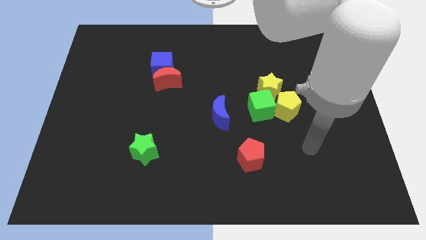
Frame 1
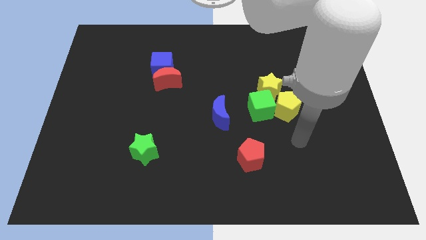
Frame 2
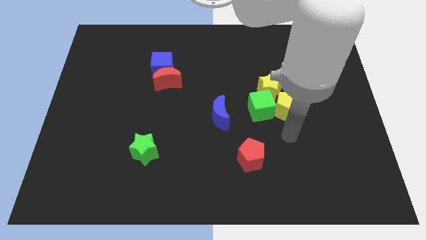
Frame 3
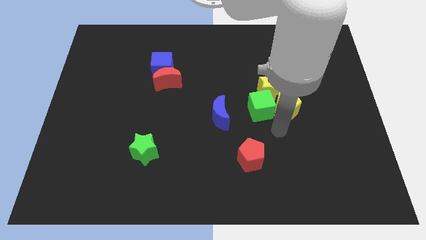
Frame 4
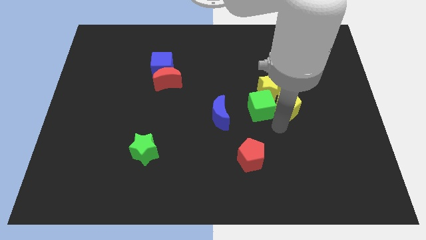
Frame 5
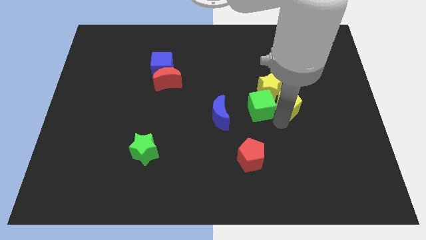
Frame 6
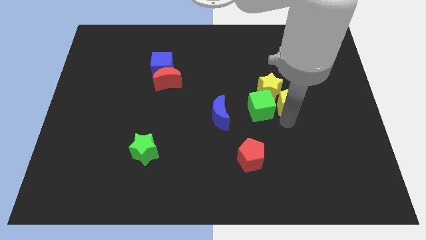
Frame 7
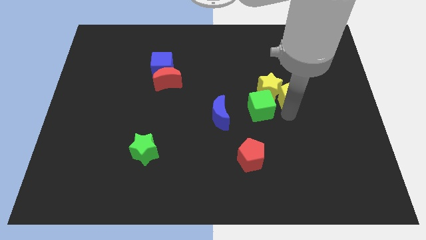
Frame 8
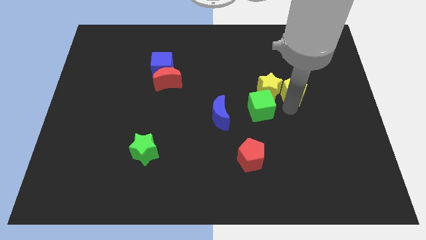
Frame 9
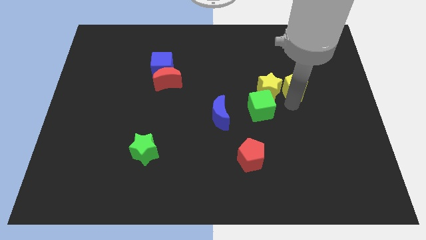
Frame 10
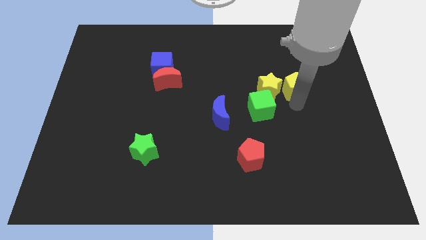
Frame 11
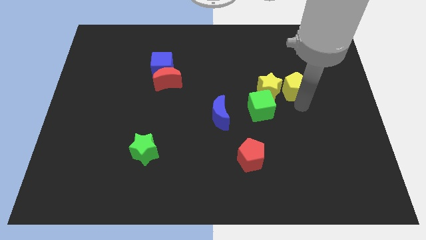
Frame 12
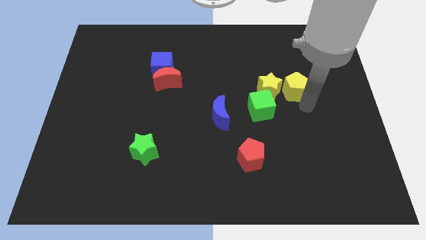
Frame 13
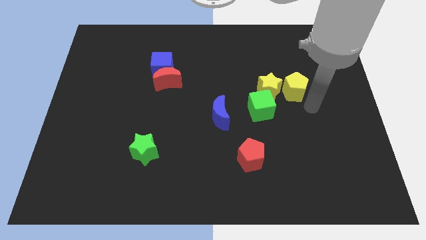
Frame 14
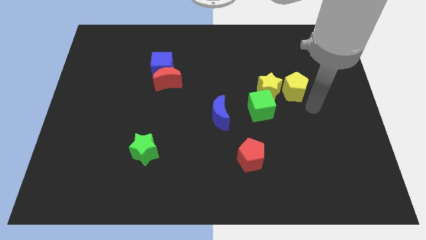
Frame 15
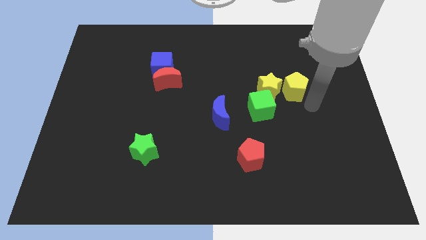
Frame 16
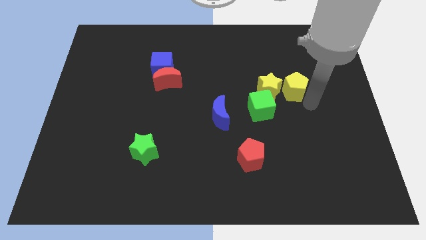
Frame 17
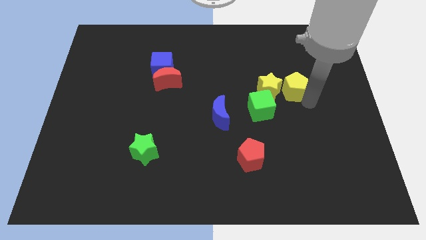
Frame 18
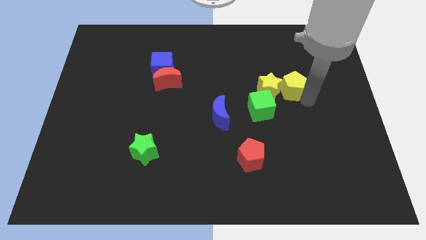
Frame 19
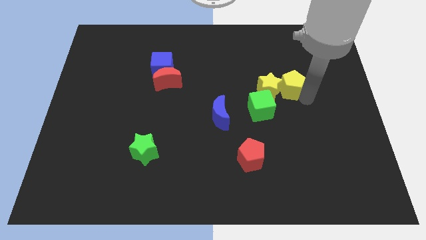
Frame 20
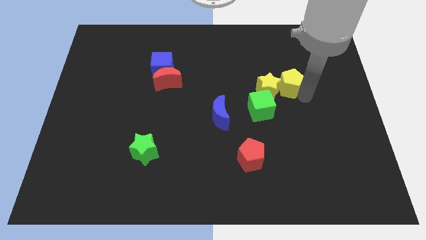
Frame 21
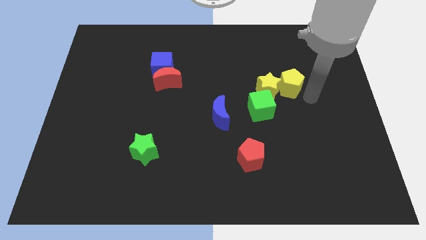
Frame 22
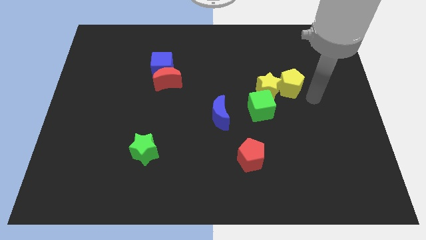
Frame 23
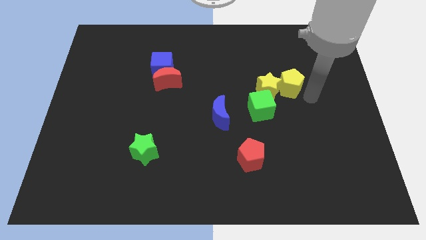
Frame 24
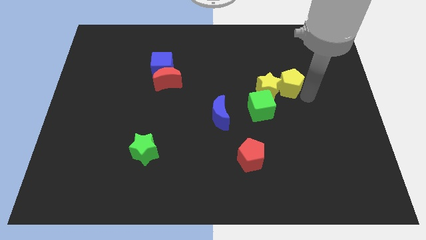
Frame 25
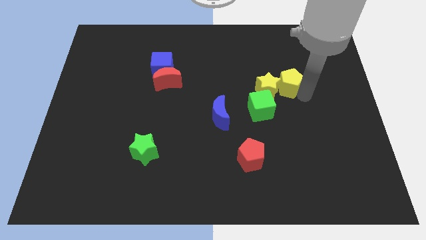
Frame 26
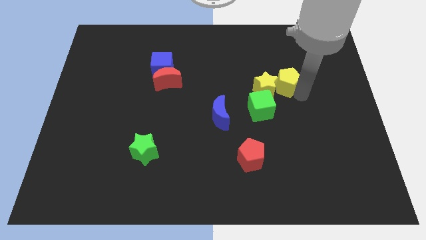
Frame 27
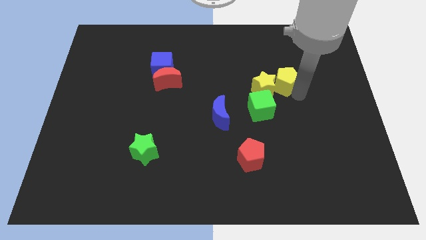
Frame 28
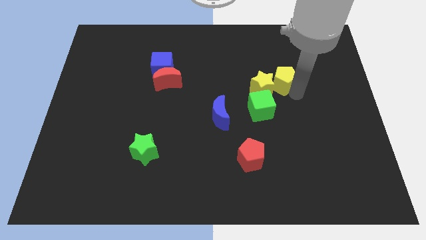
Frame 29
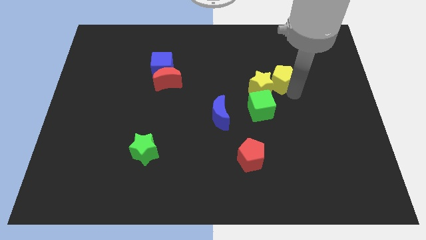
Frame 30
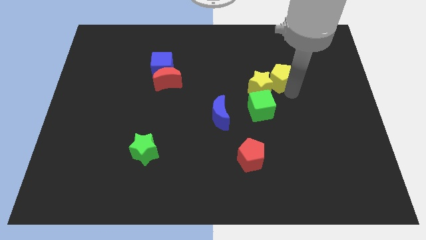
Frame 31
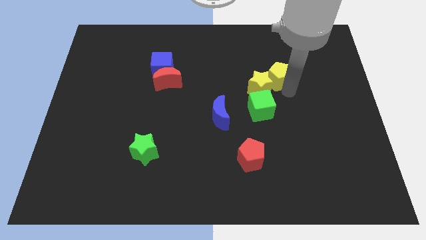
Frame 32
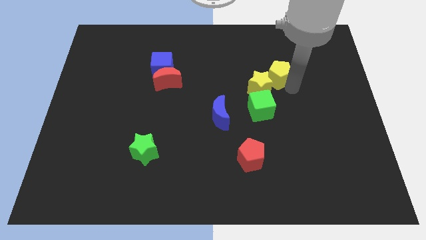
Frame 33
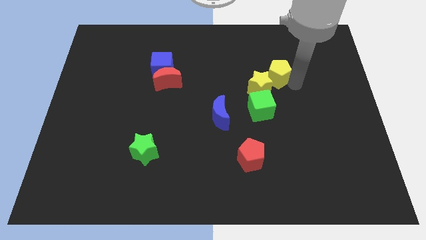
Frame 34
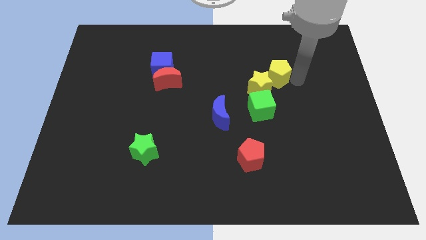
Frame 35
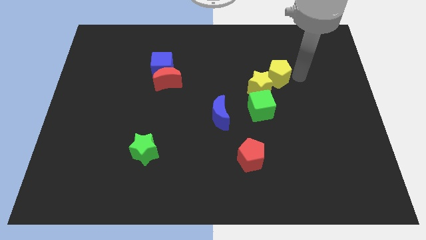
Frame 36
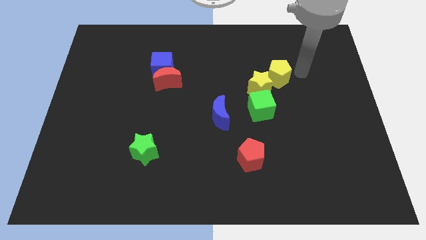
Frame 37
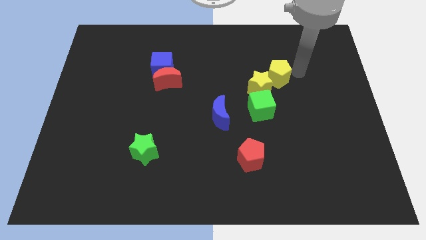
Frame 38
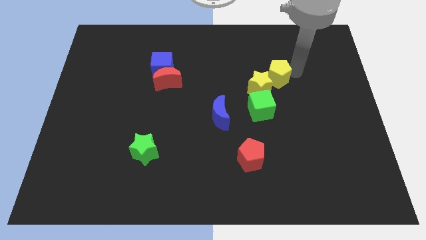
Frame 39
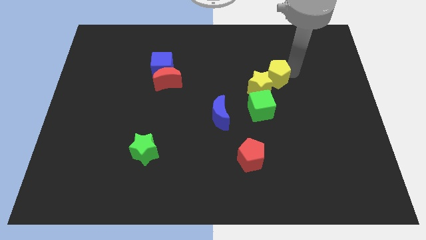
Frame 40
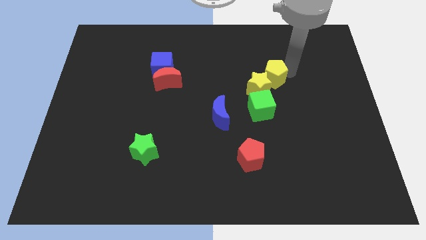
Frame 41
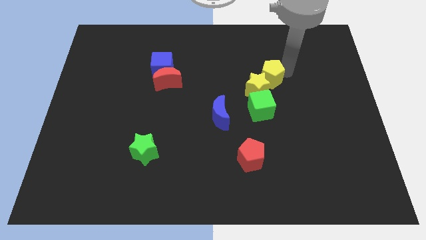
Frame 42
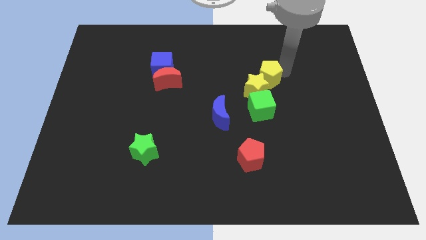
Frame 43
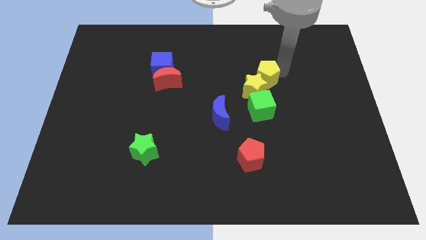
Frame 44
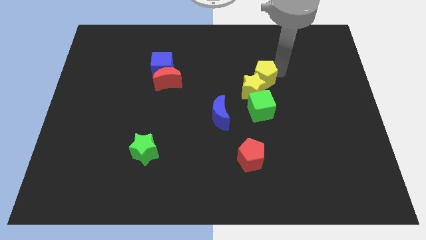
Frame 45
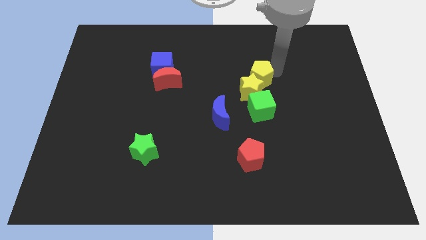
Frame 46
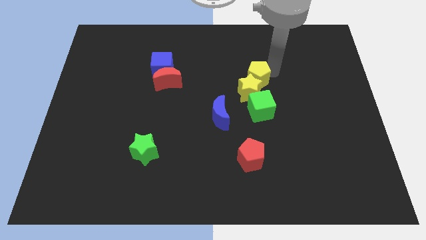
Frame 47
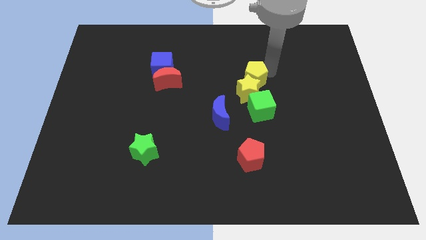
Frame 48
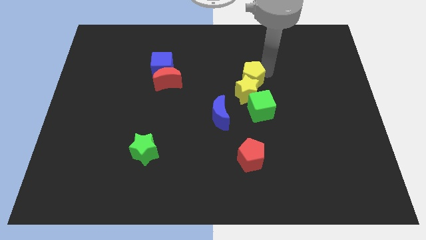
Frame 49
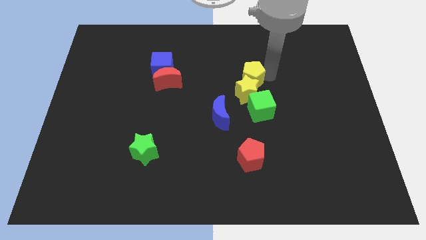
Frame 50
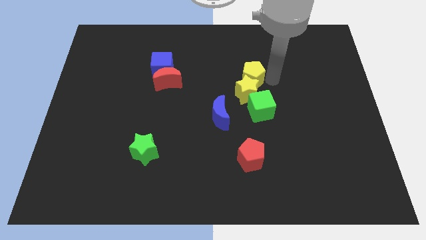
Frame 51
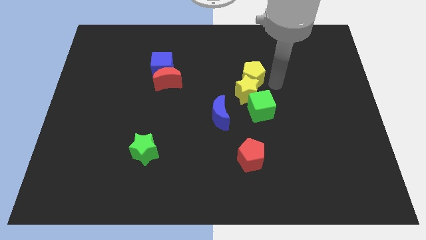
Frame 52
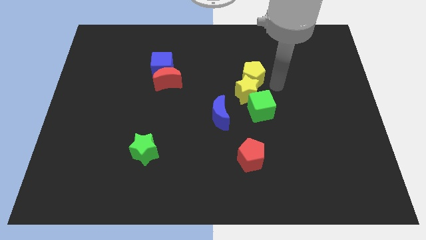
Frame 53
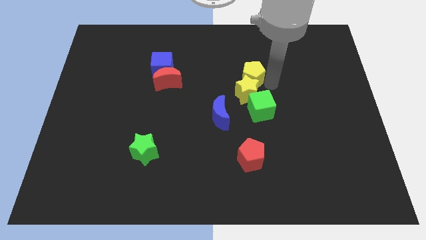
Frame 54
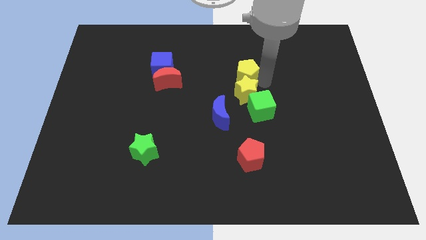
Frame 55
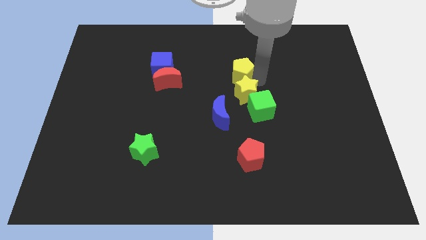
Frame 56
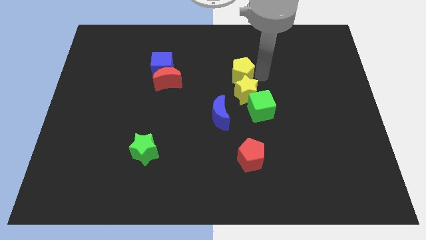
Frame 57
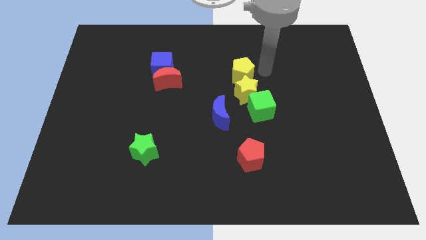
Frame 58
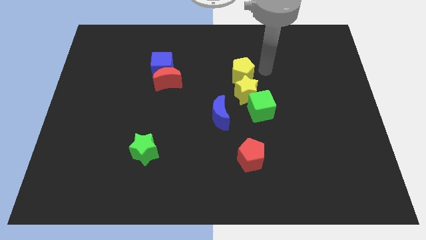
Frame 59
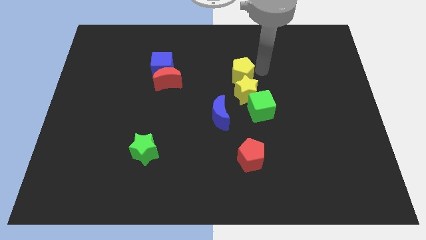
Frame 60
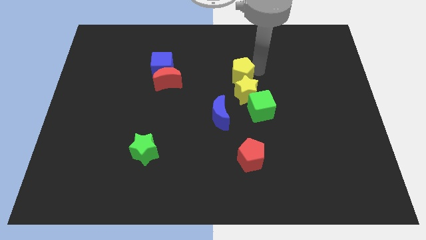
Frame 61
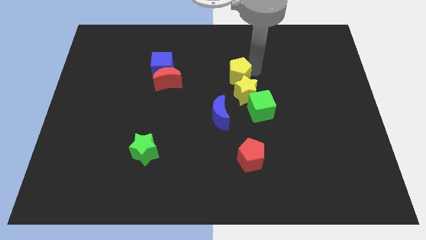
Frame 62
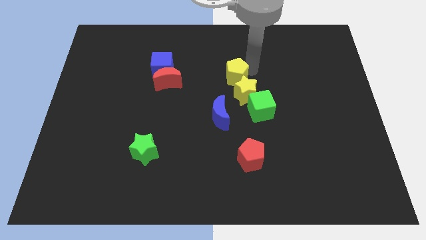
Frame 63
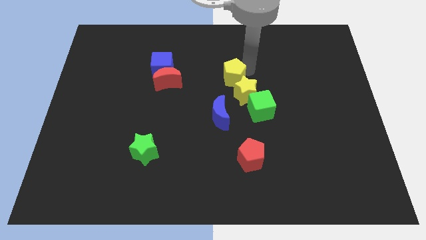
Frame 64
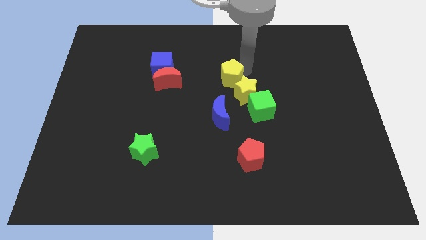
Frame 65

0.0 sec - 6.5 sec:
push the yellow pentagon to the right side of the red moon
